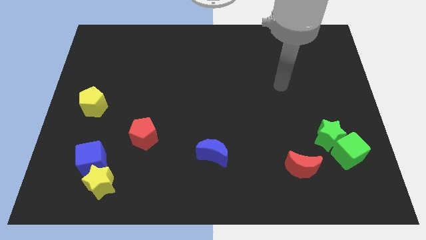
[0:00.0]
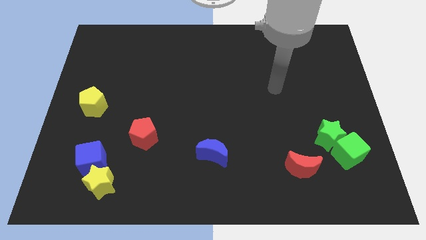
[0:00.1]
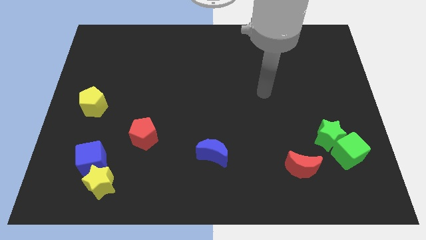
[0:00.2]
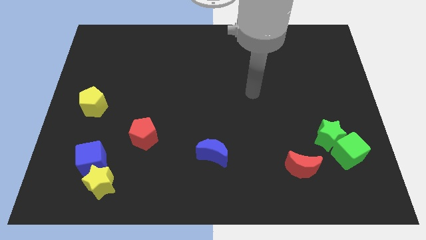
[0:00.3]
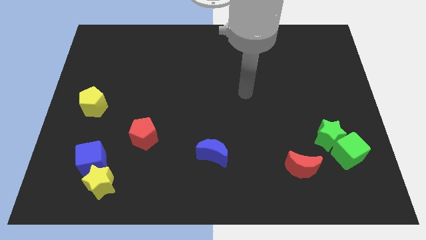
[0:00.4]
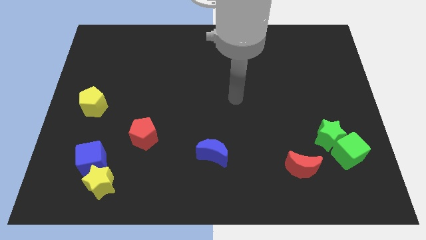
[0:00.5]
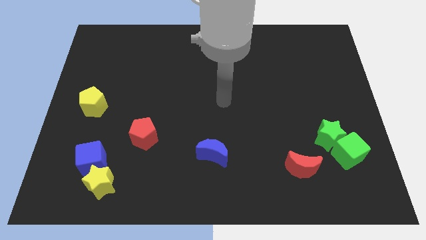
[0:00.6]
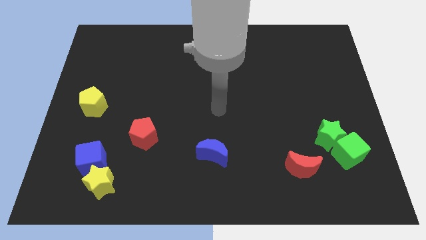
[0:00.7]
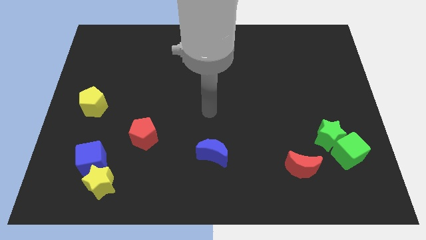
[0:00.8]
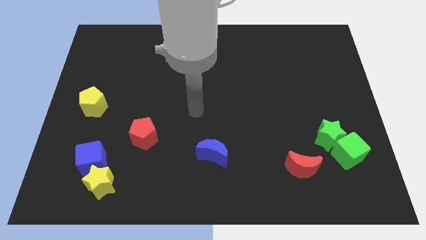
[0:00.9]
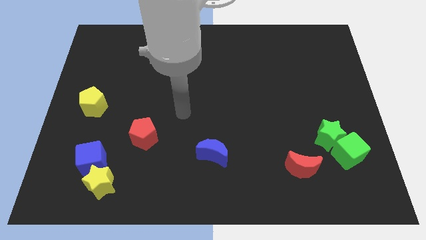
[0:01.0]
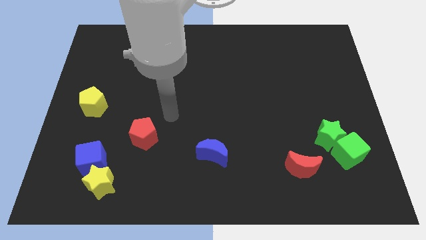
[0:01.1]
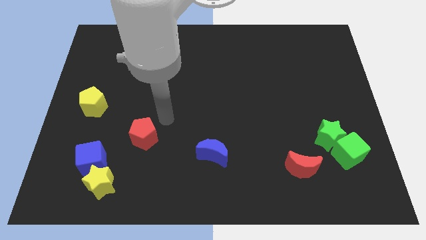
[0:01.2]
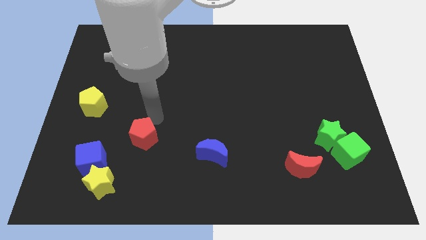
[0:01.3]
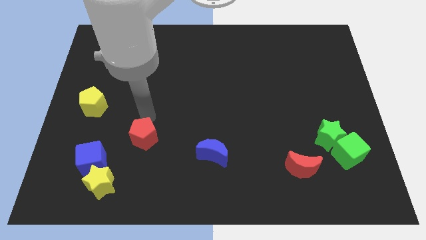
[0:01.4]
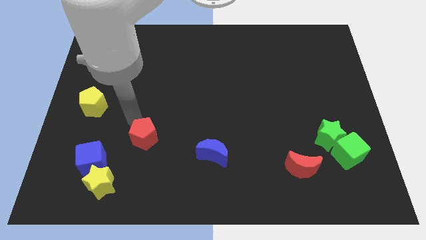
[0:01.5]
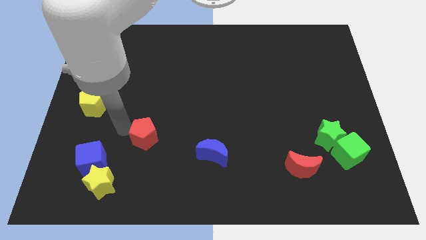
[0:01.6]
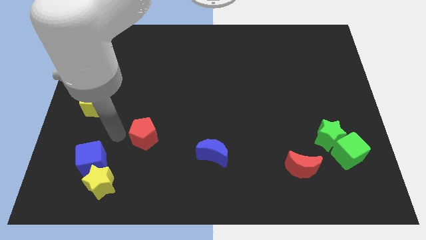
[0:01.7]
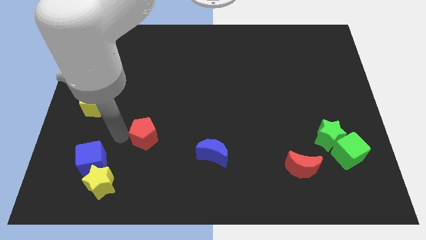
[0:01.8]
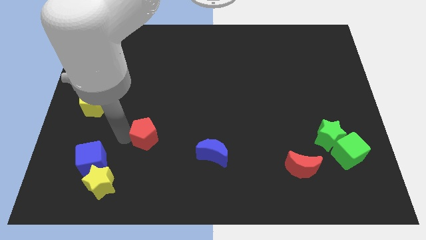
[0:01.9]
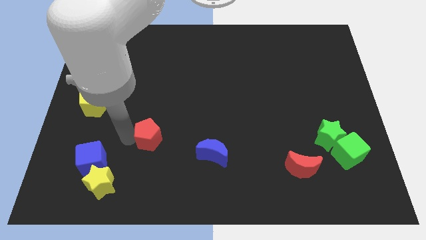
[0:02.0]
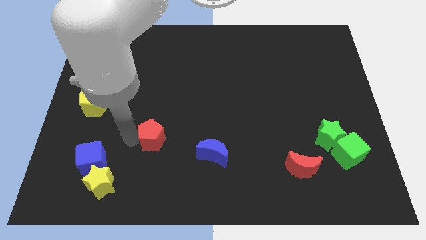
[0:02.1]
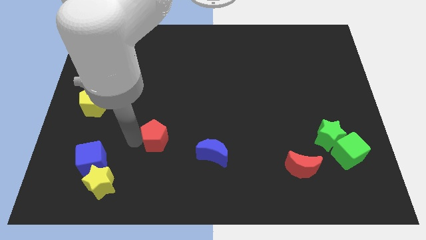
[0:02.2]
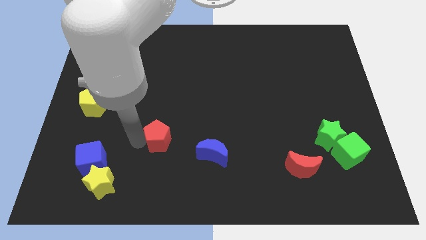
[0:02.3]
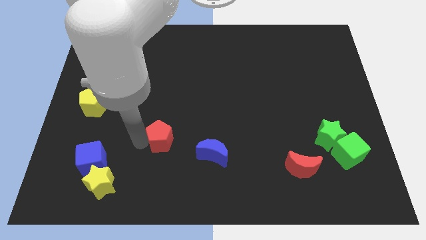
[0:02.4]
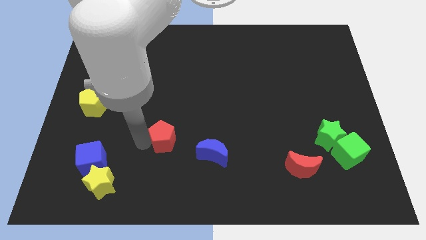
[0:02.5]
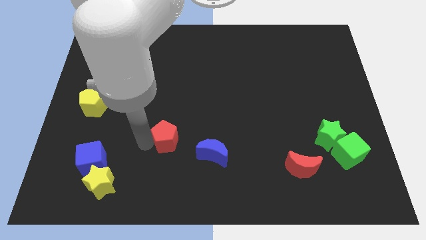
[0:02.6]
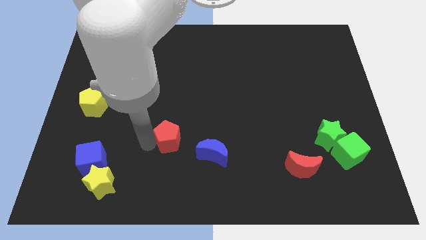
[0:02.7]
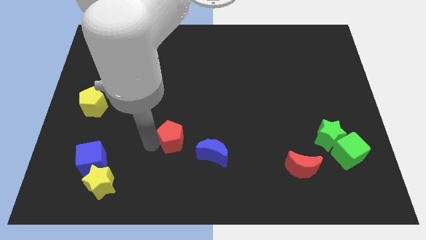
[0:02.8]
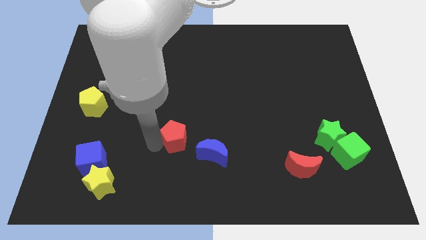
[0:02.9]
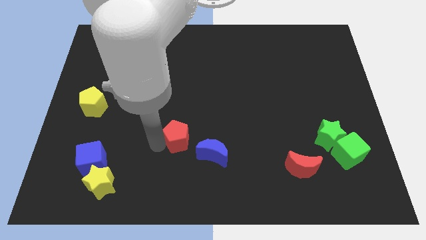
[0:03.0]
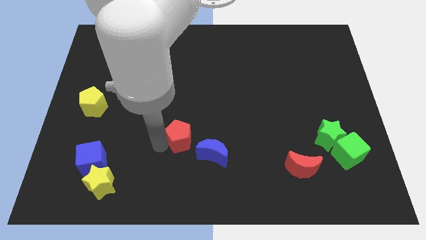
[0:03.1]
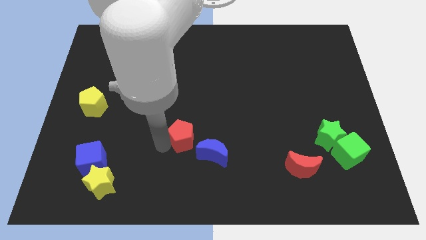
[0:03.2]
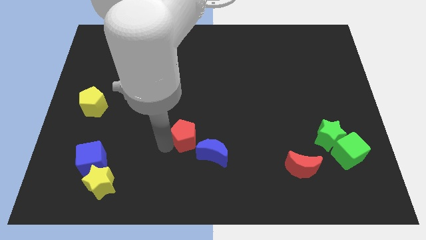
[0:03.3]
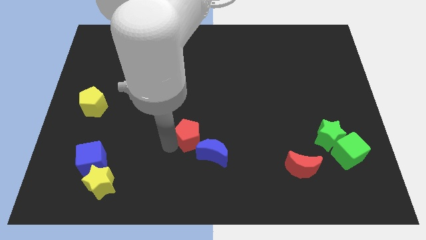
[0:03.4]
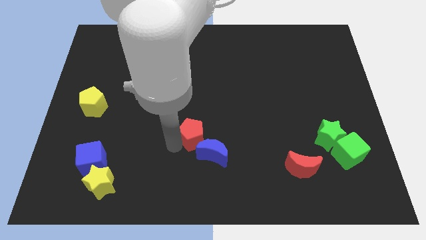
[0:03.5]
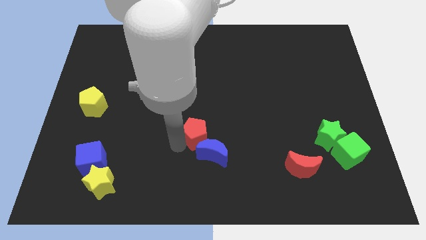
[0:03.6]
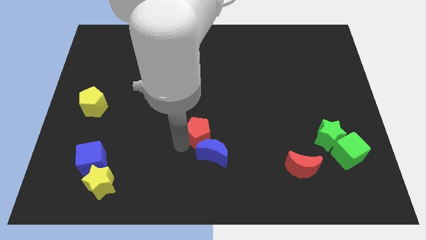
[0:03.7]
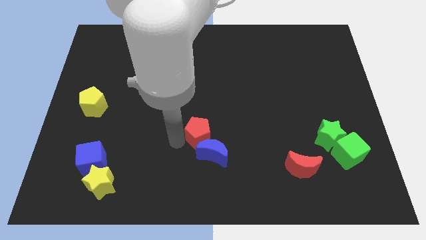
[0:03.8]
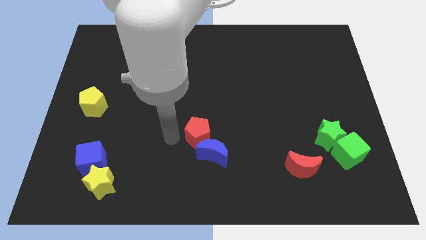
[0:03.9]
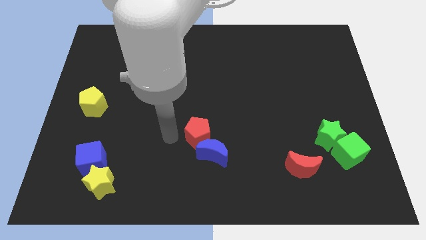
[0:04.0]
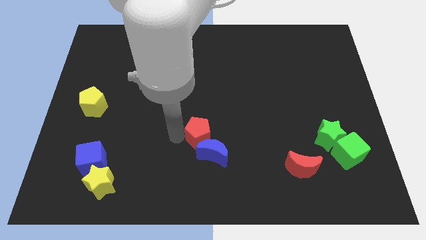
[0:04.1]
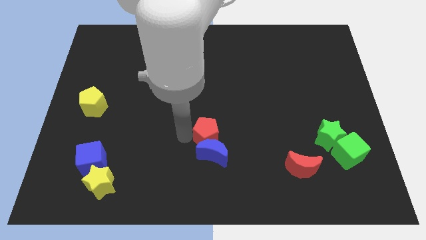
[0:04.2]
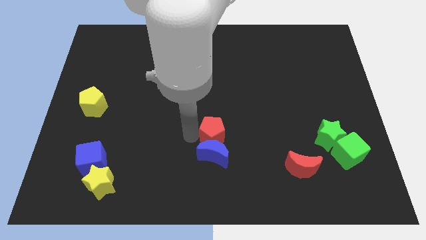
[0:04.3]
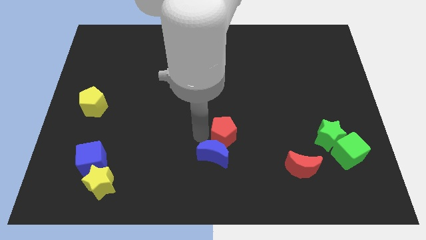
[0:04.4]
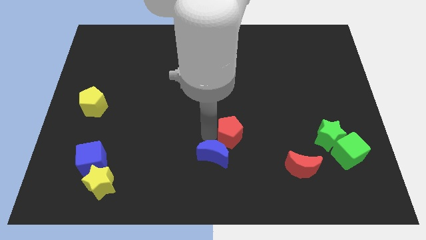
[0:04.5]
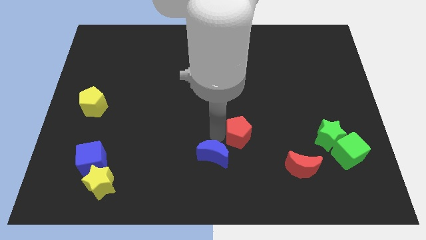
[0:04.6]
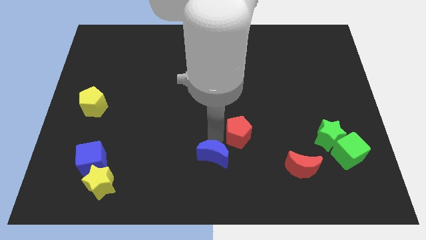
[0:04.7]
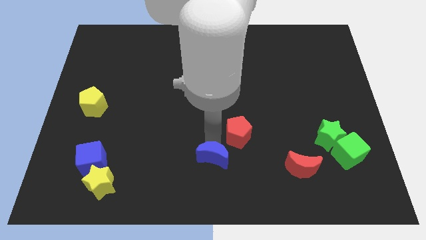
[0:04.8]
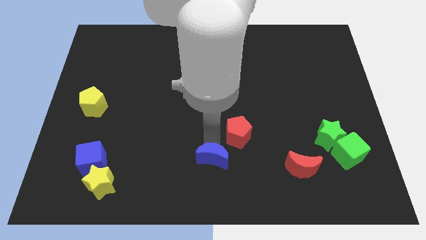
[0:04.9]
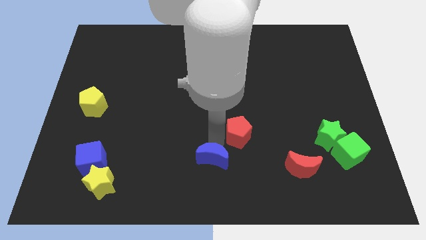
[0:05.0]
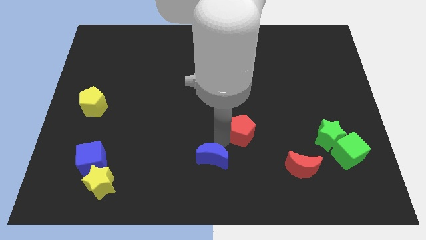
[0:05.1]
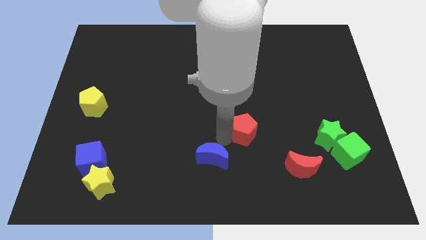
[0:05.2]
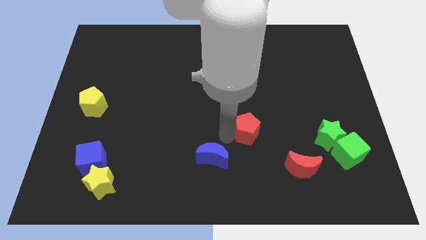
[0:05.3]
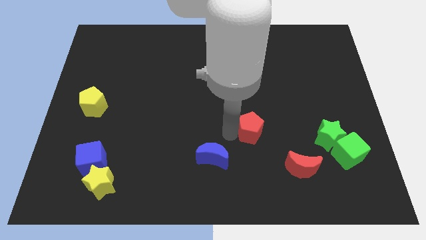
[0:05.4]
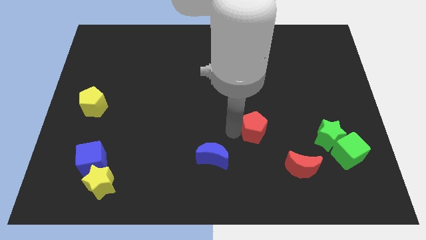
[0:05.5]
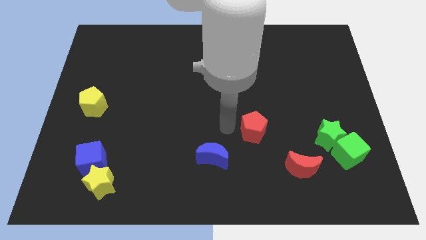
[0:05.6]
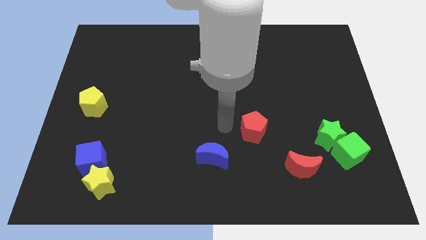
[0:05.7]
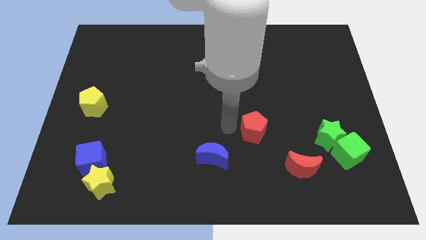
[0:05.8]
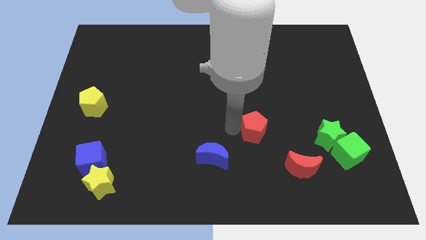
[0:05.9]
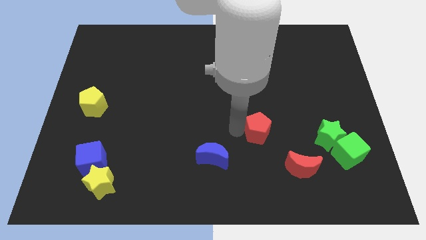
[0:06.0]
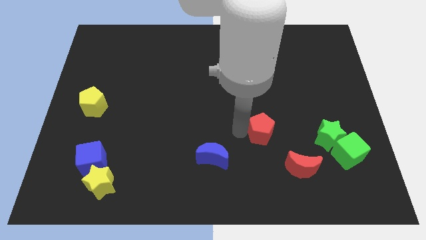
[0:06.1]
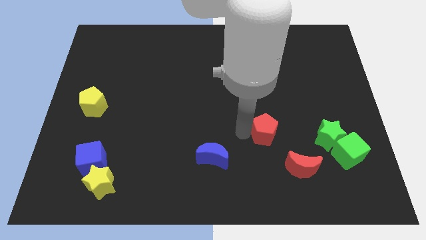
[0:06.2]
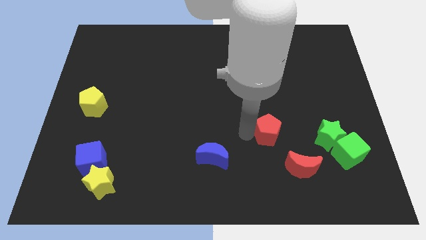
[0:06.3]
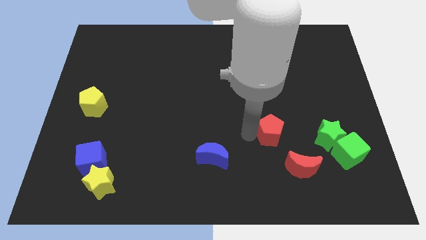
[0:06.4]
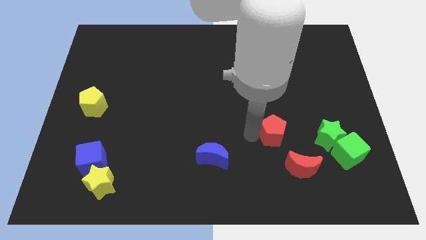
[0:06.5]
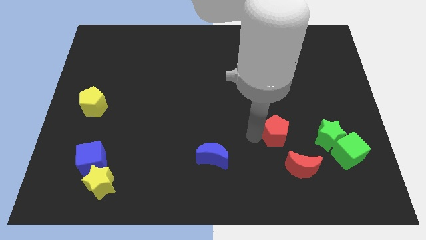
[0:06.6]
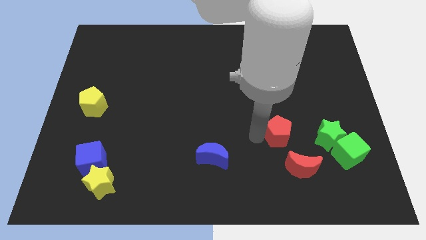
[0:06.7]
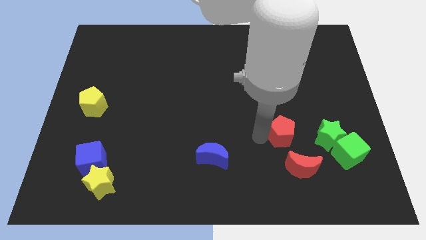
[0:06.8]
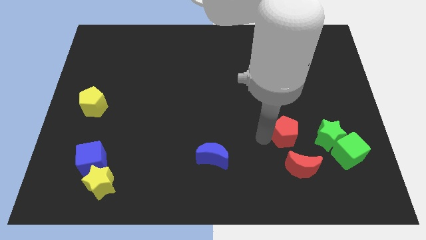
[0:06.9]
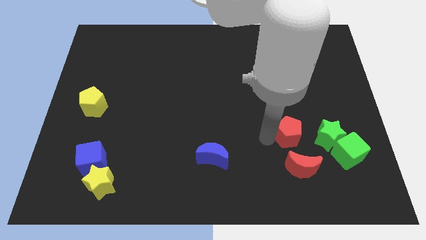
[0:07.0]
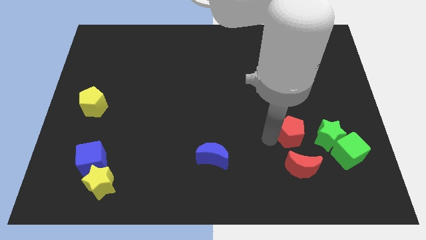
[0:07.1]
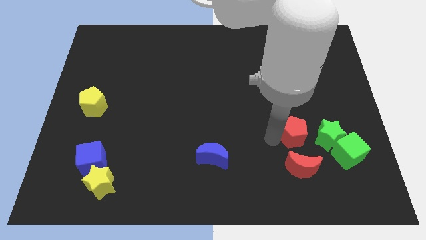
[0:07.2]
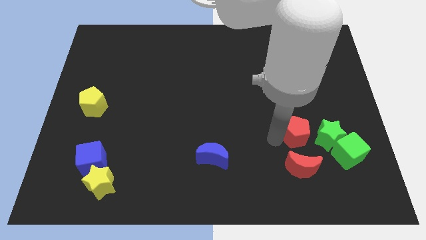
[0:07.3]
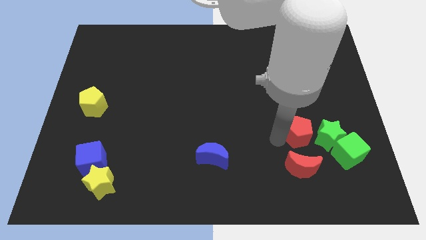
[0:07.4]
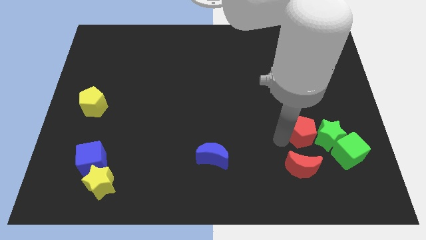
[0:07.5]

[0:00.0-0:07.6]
slide the red pentagon towards the green star
